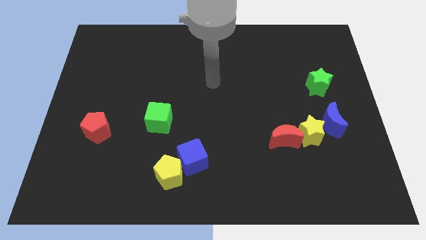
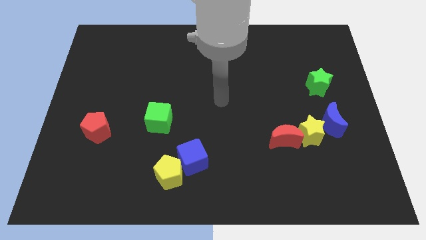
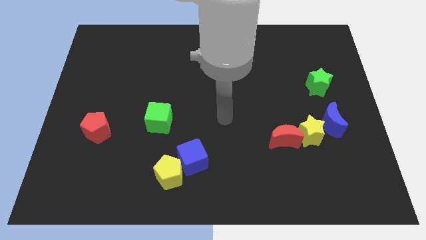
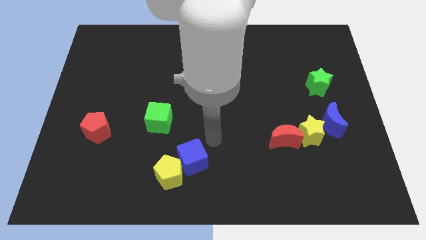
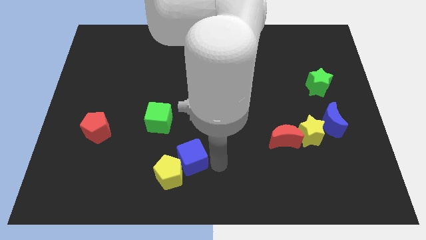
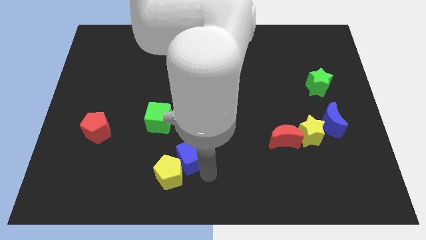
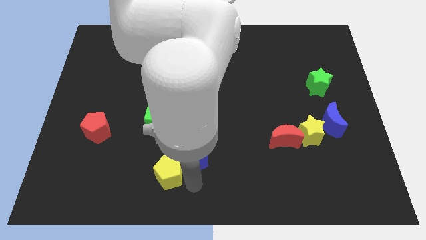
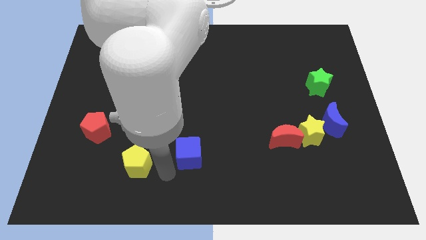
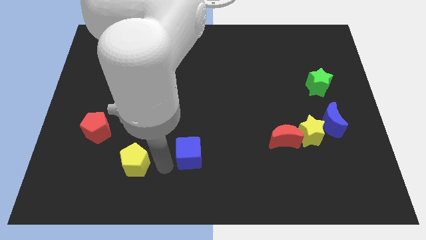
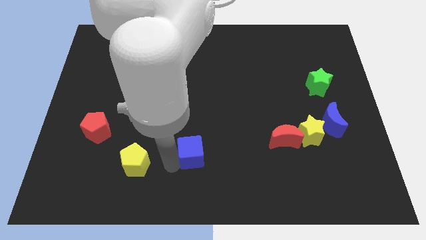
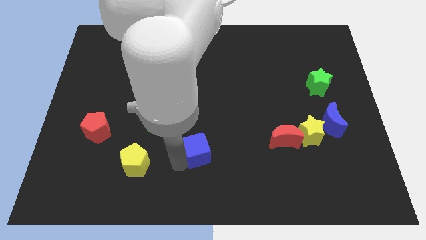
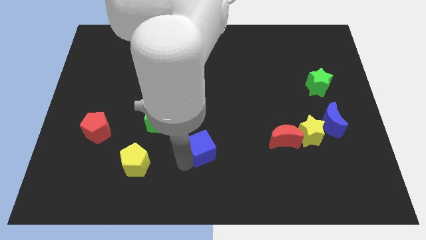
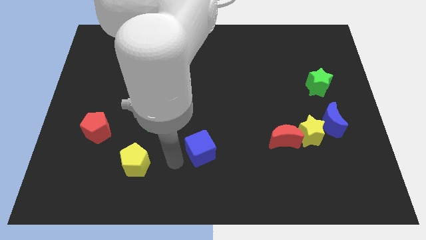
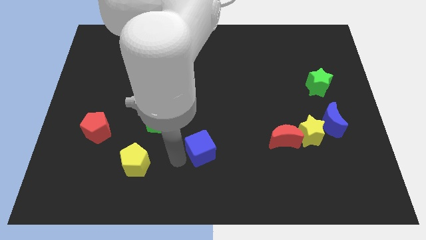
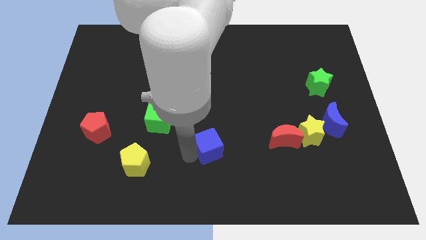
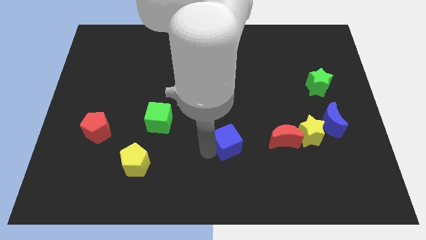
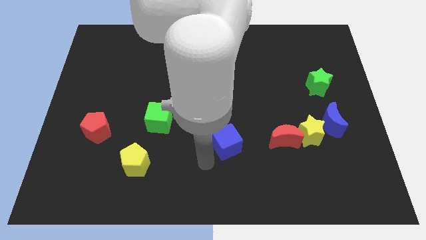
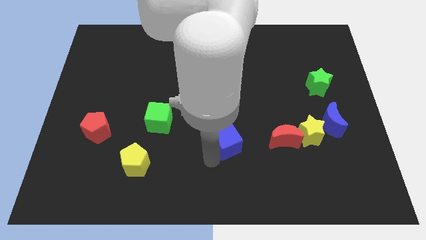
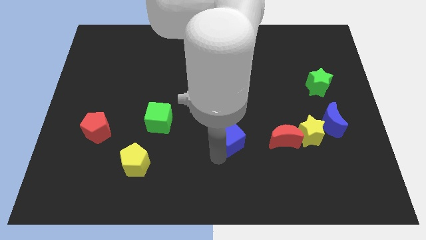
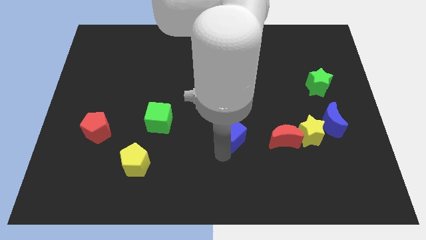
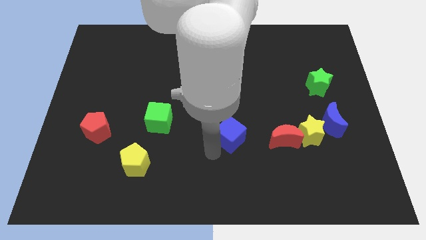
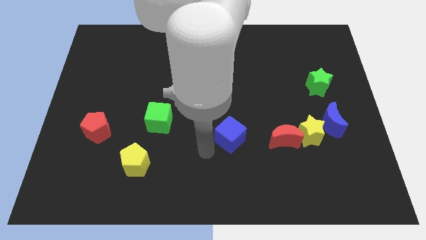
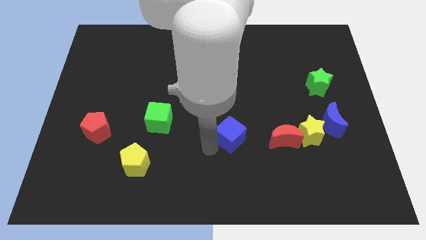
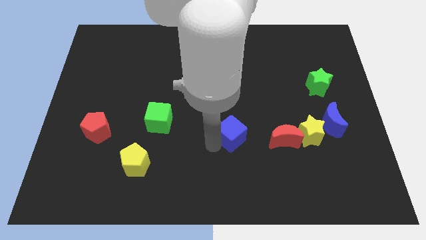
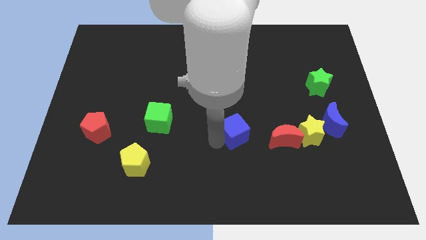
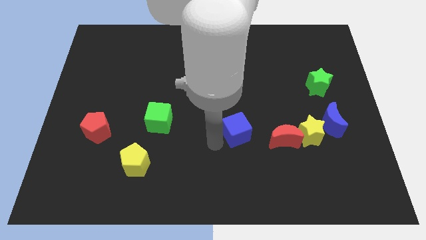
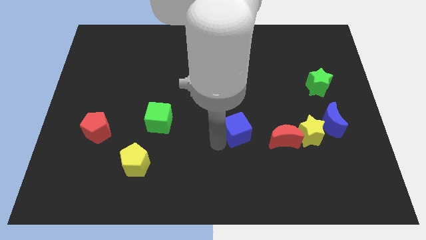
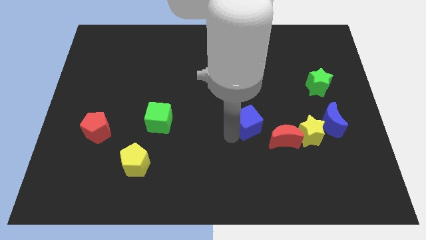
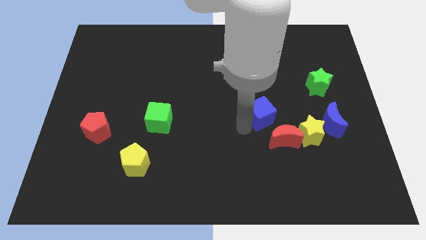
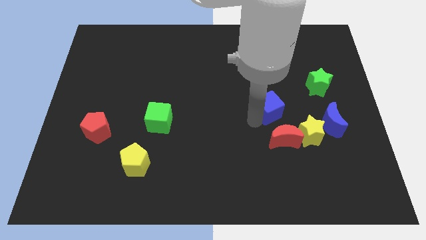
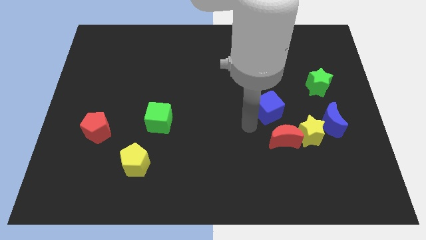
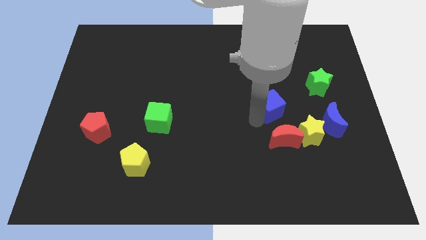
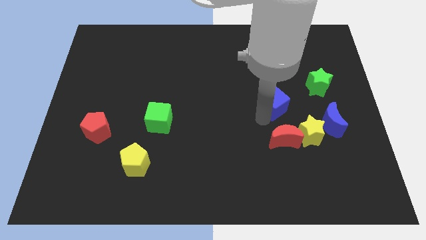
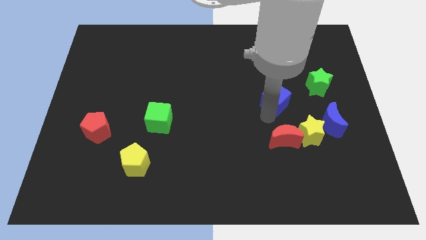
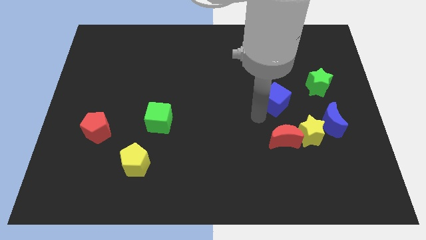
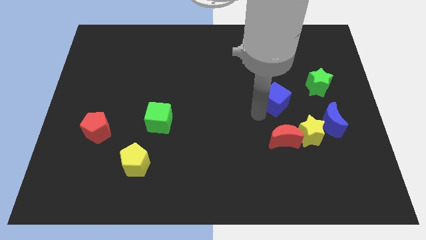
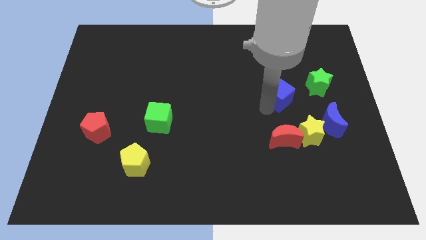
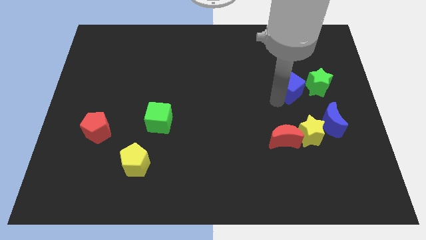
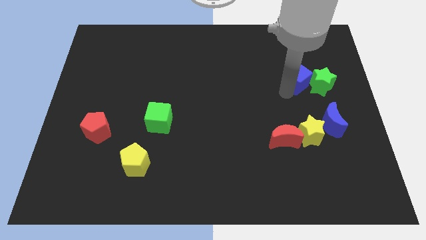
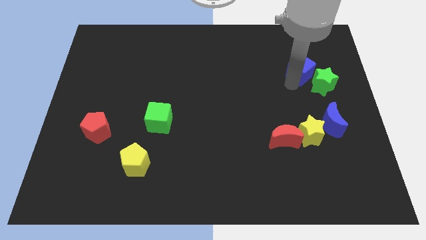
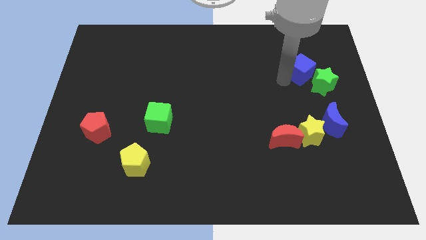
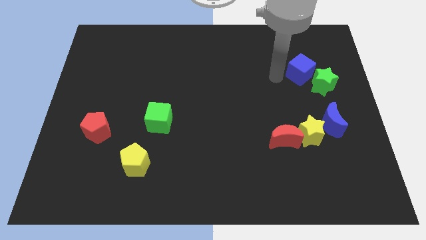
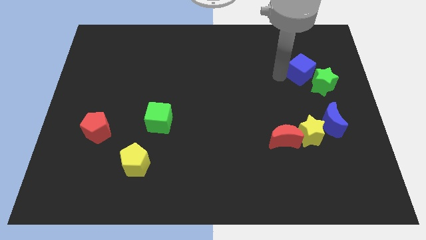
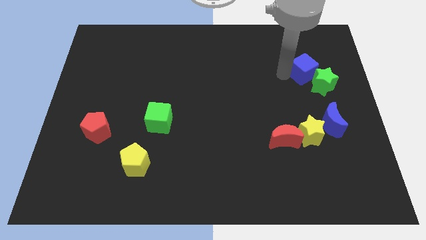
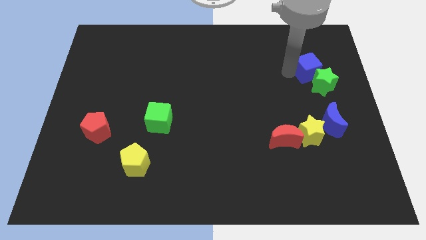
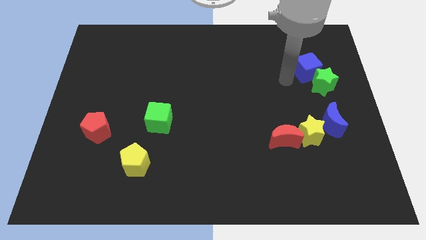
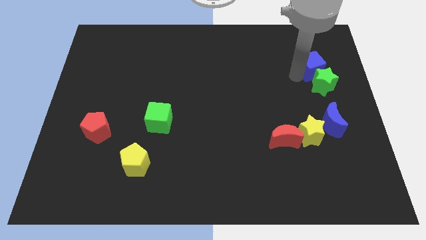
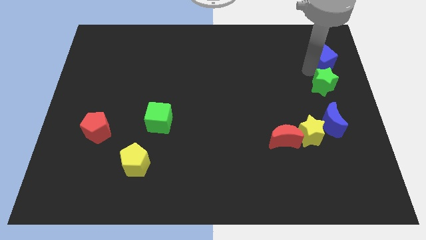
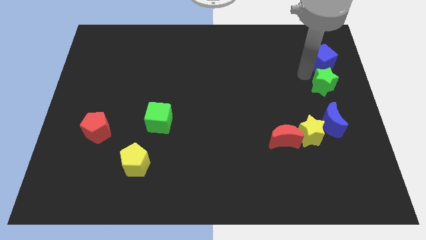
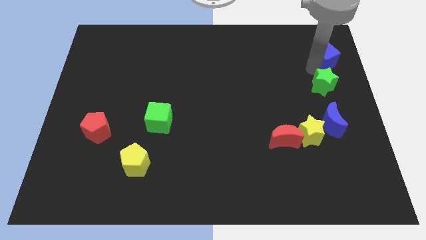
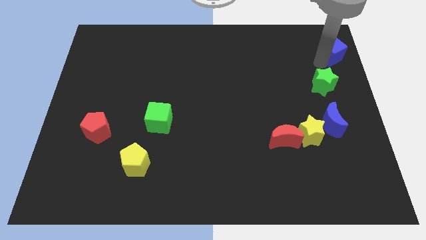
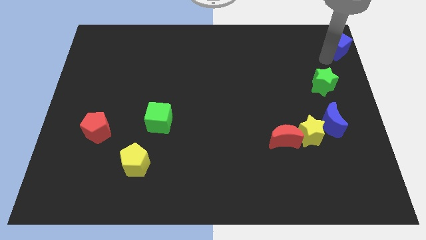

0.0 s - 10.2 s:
slide the blue cube to the top right of the board
